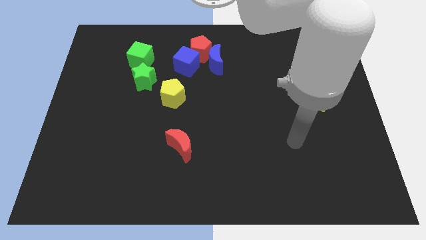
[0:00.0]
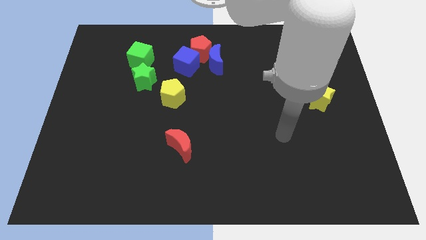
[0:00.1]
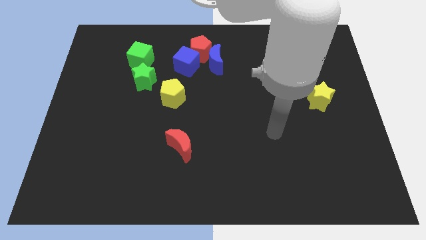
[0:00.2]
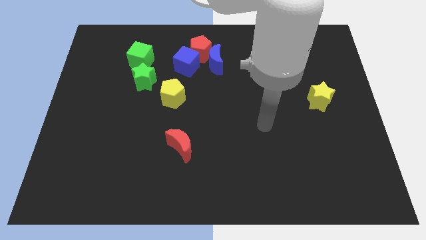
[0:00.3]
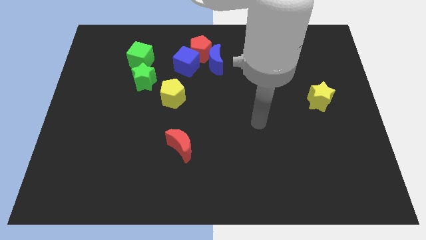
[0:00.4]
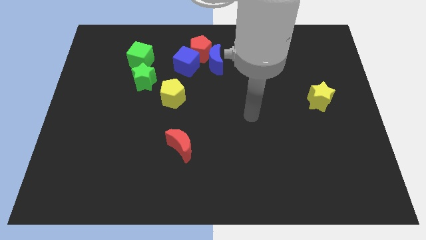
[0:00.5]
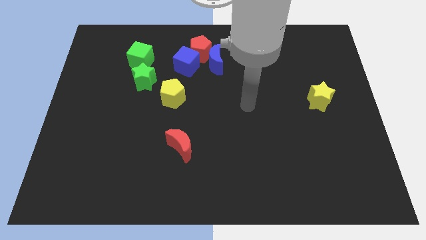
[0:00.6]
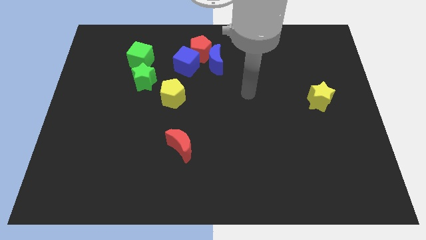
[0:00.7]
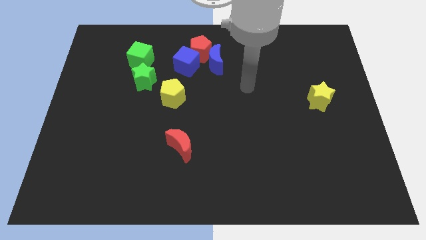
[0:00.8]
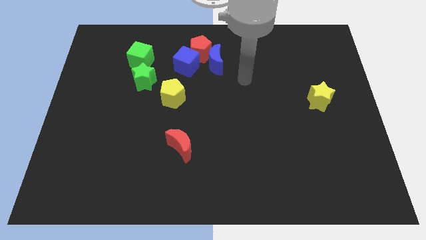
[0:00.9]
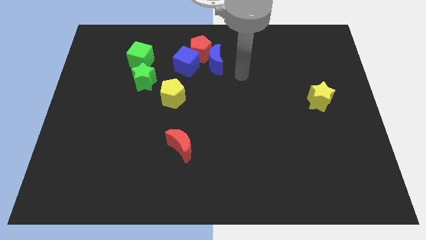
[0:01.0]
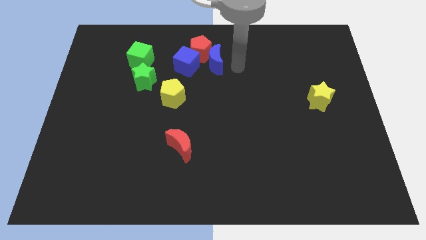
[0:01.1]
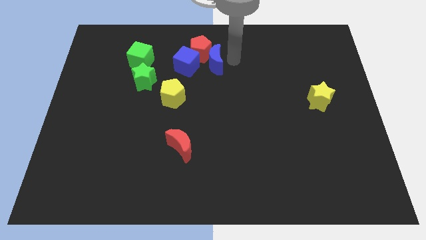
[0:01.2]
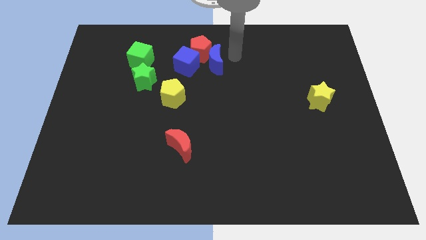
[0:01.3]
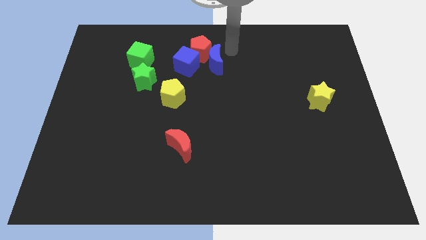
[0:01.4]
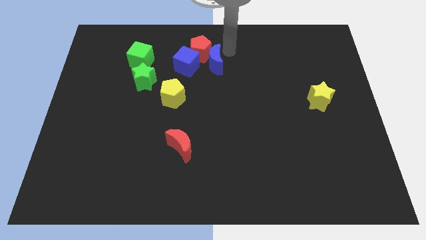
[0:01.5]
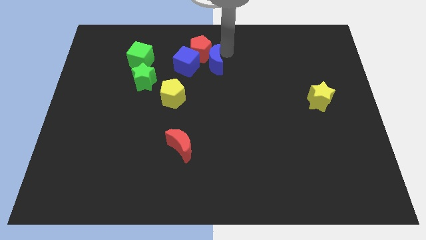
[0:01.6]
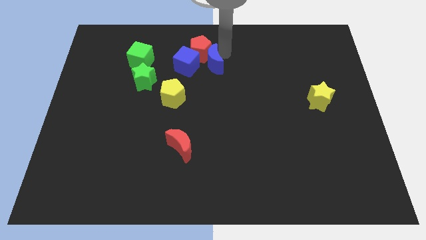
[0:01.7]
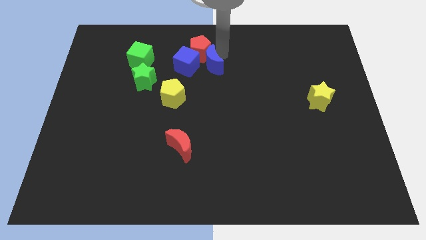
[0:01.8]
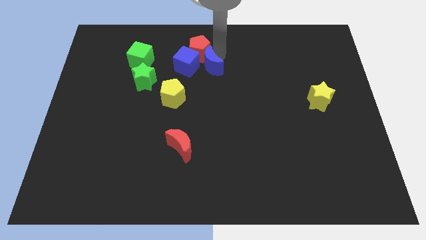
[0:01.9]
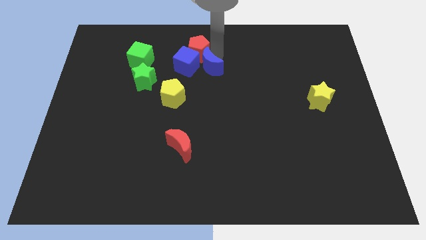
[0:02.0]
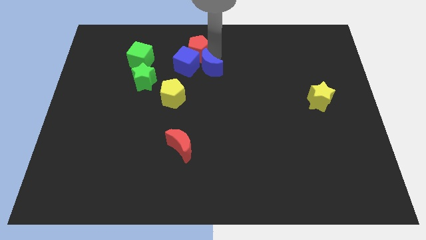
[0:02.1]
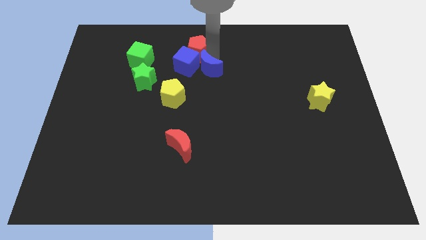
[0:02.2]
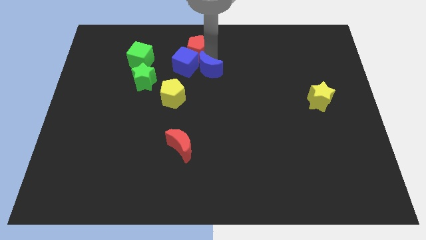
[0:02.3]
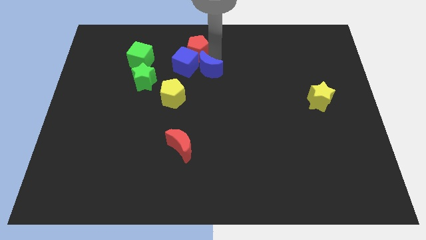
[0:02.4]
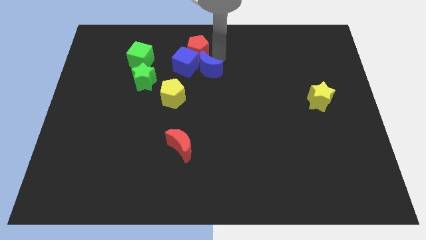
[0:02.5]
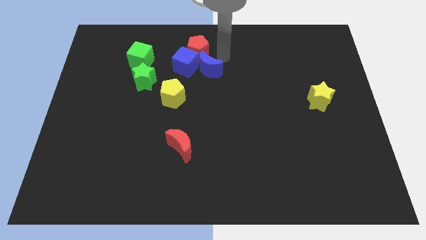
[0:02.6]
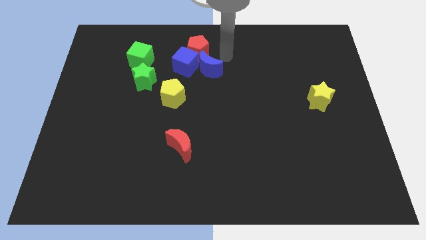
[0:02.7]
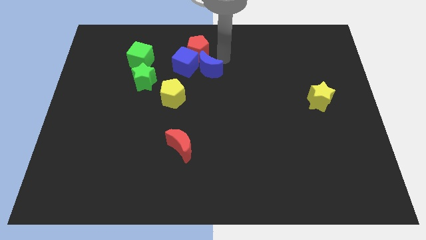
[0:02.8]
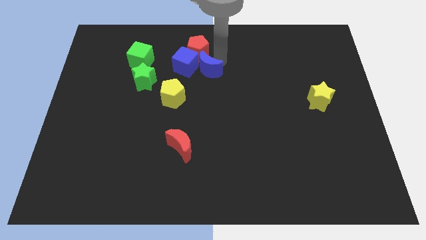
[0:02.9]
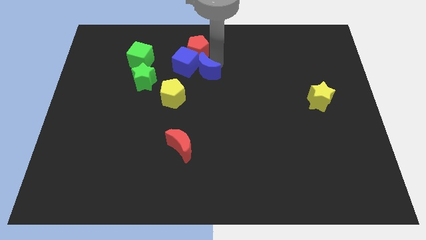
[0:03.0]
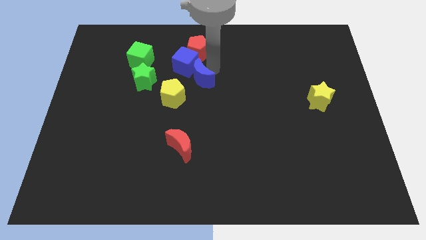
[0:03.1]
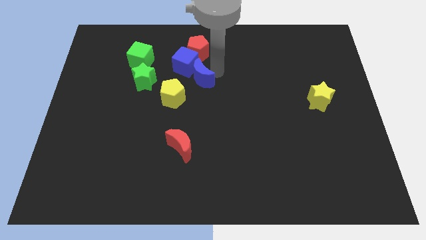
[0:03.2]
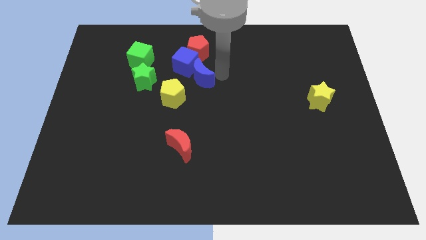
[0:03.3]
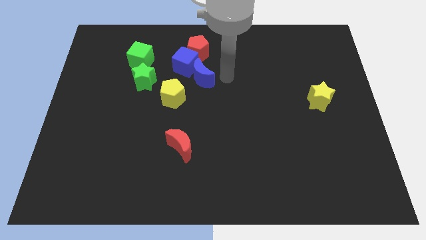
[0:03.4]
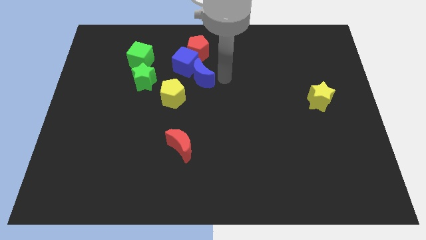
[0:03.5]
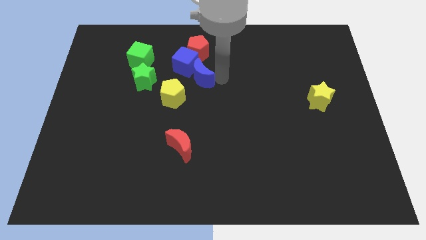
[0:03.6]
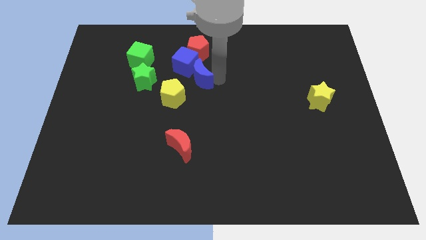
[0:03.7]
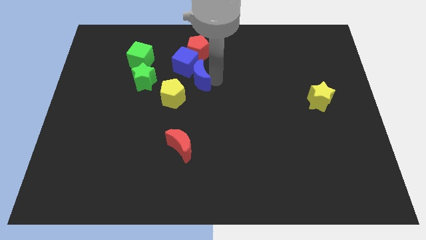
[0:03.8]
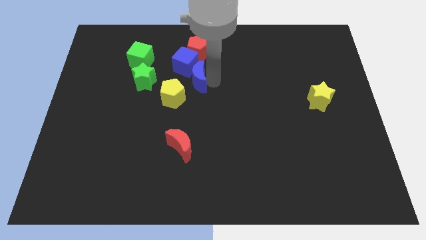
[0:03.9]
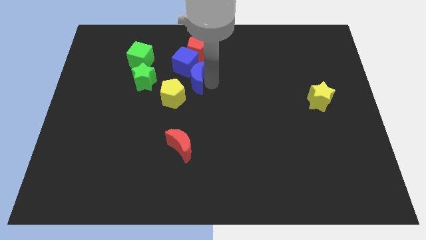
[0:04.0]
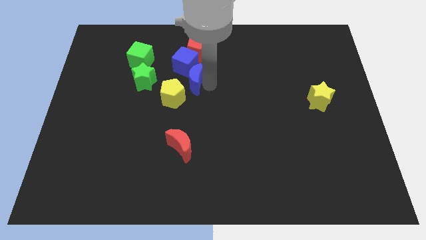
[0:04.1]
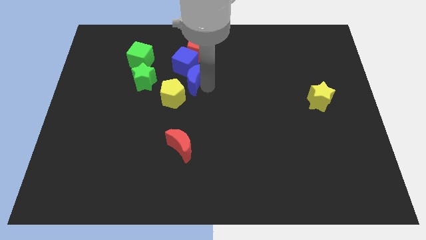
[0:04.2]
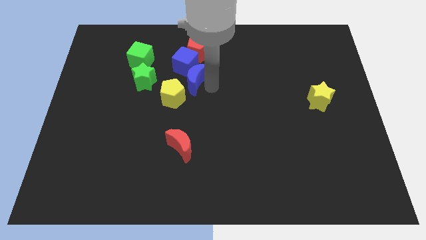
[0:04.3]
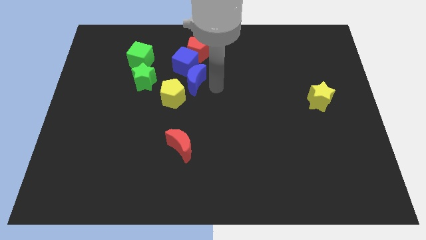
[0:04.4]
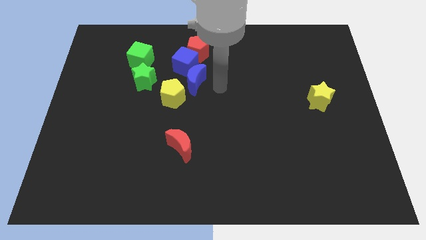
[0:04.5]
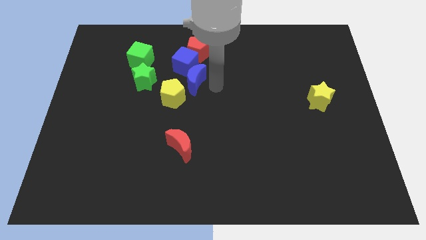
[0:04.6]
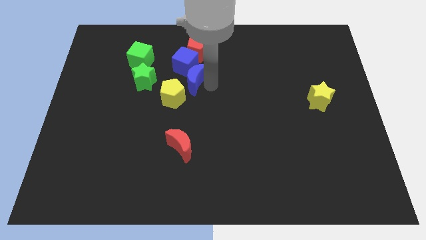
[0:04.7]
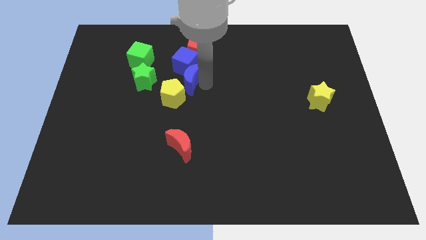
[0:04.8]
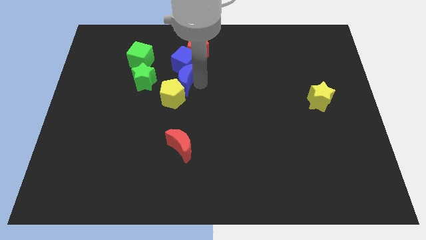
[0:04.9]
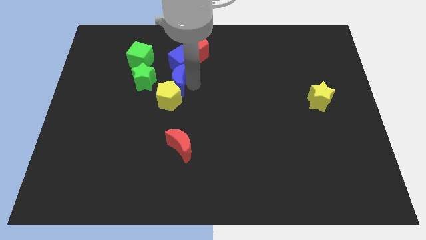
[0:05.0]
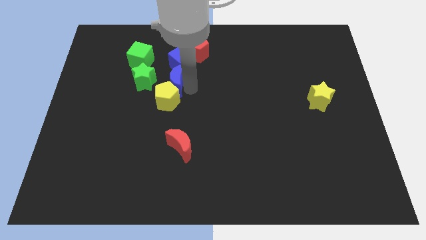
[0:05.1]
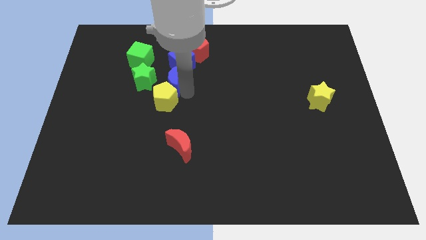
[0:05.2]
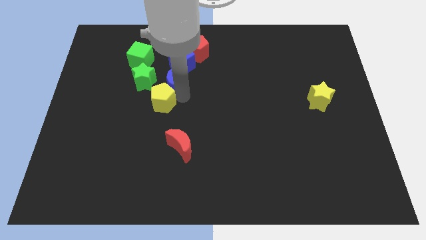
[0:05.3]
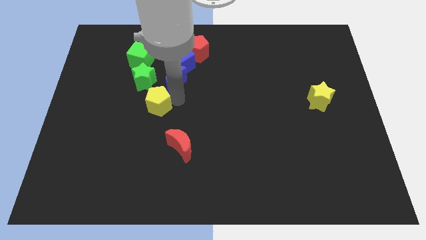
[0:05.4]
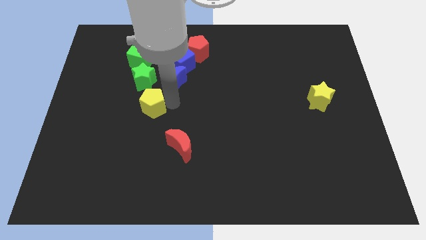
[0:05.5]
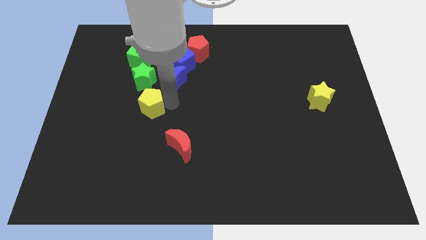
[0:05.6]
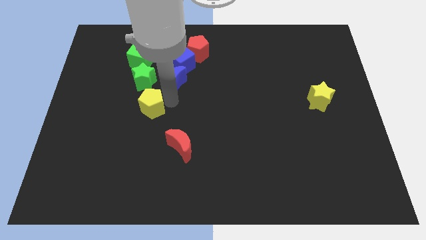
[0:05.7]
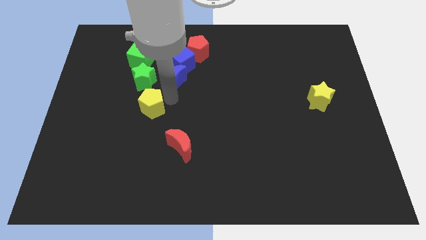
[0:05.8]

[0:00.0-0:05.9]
move the blue moon to the bottom left side of the red pentagon

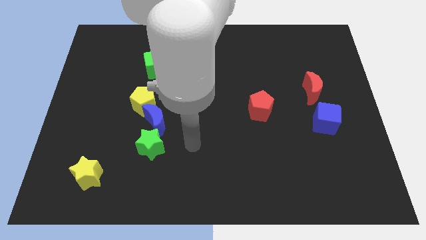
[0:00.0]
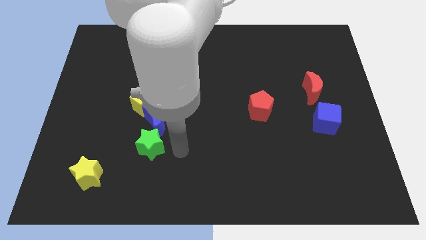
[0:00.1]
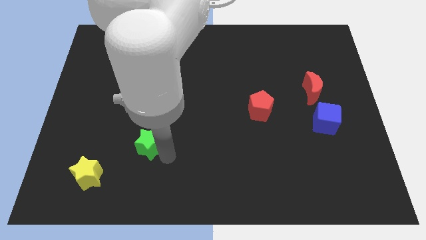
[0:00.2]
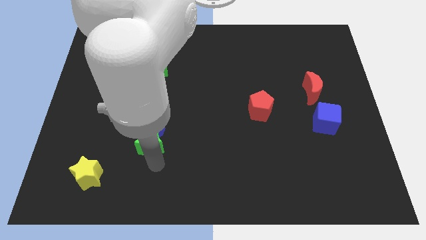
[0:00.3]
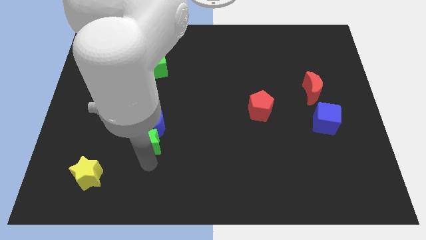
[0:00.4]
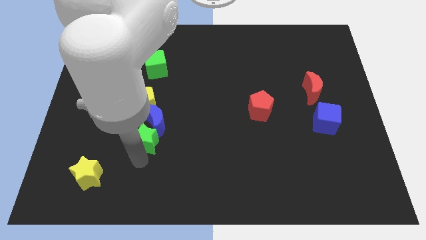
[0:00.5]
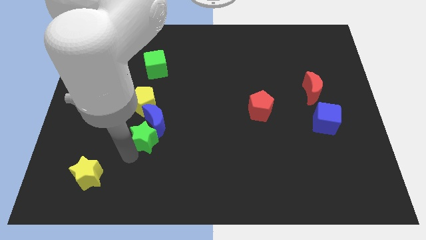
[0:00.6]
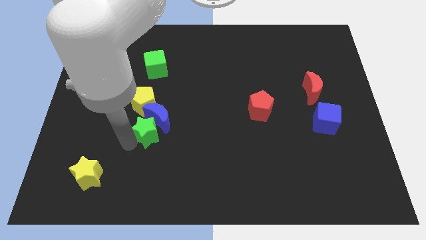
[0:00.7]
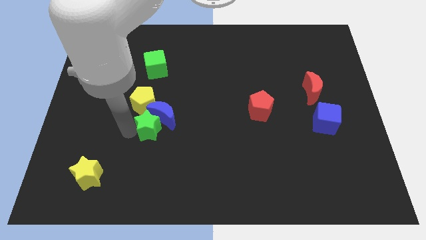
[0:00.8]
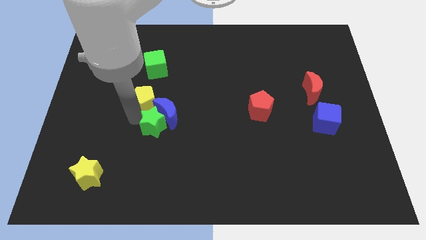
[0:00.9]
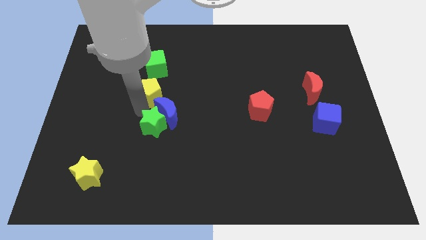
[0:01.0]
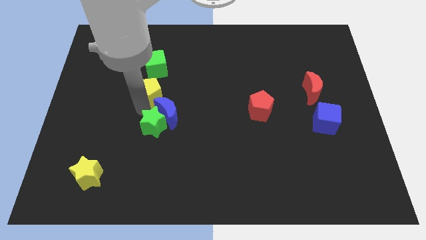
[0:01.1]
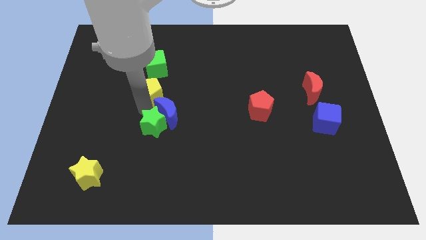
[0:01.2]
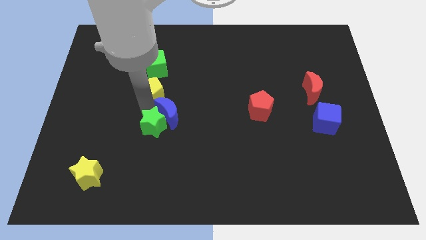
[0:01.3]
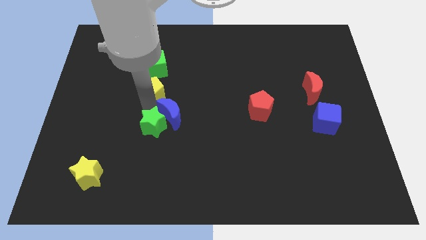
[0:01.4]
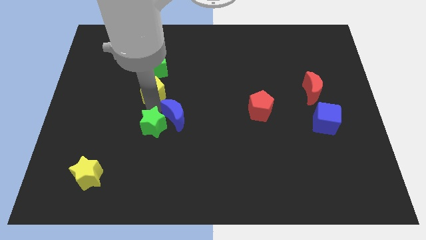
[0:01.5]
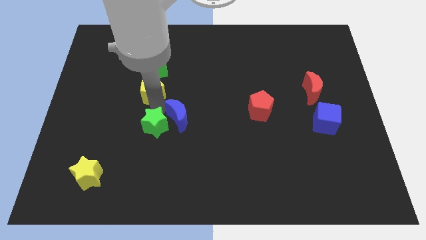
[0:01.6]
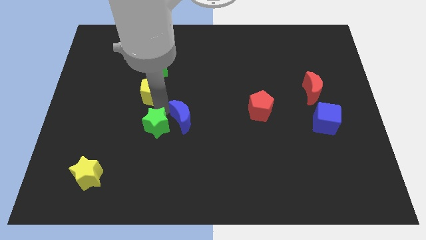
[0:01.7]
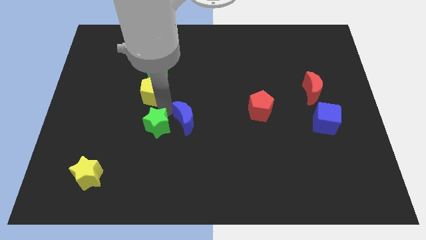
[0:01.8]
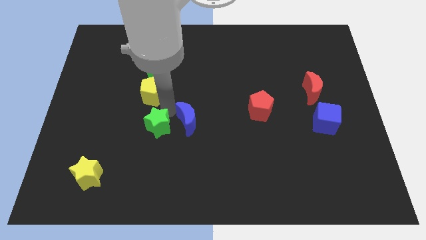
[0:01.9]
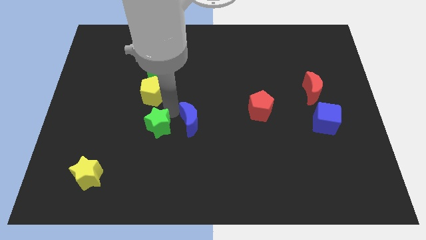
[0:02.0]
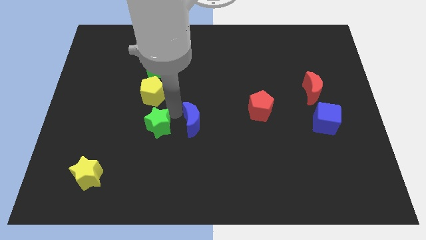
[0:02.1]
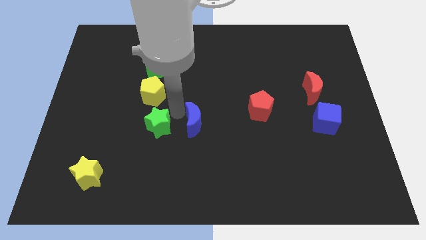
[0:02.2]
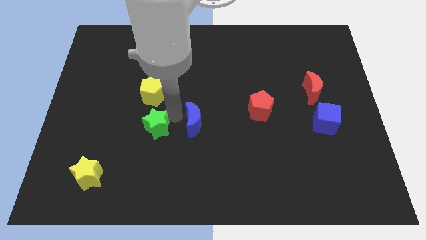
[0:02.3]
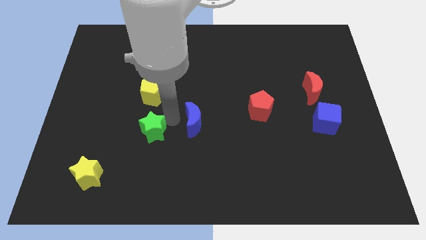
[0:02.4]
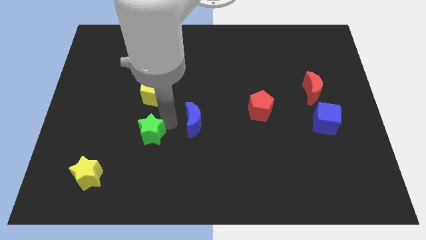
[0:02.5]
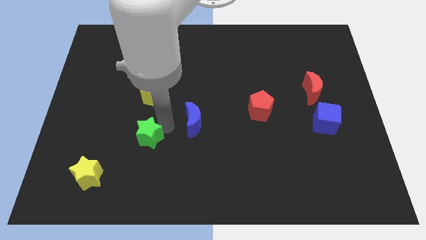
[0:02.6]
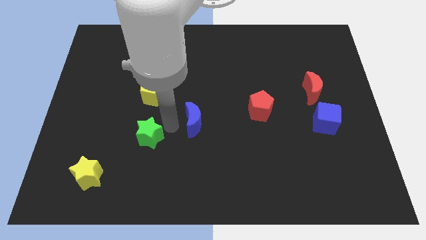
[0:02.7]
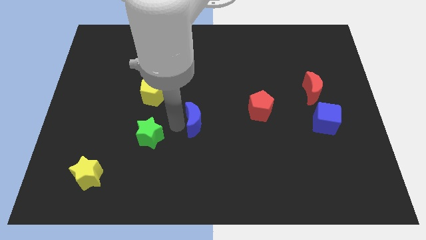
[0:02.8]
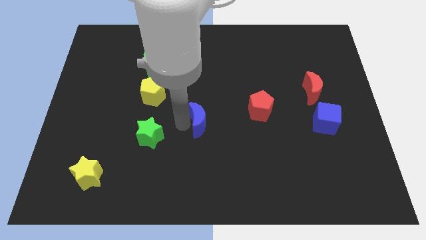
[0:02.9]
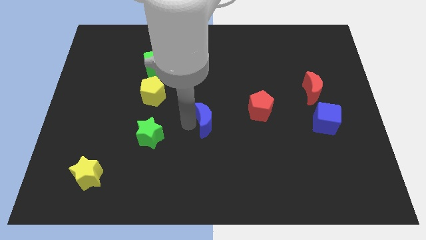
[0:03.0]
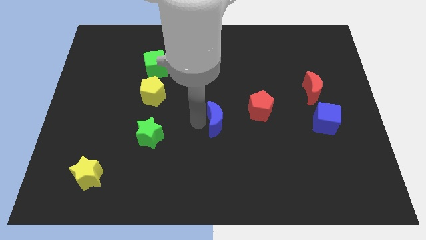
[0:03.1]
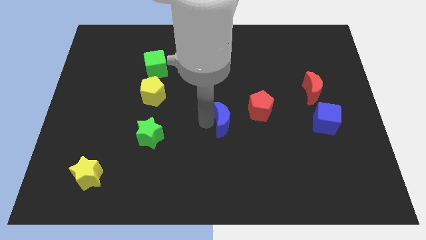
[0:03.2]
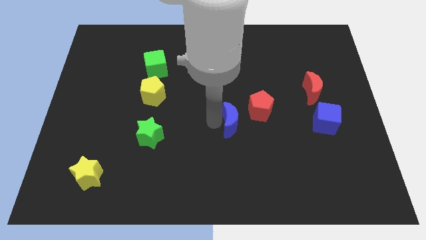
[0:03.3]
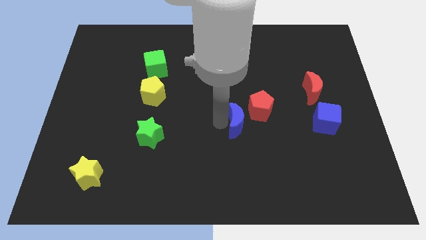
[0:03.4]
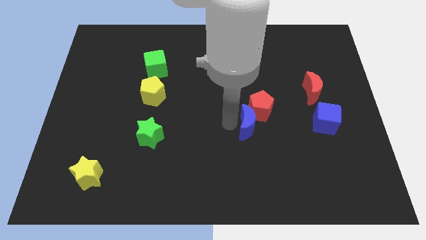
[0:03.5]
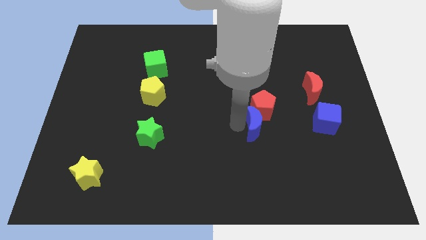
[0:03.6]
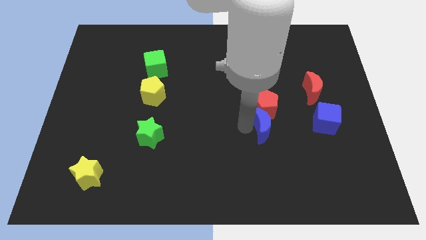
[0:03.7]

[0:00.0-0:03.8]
slide the blue moon just left of the blue cube
